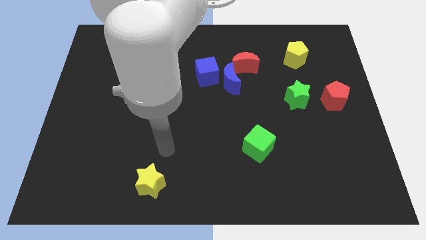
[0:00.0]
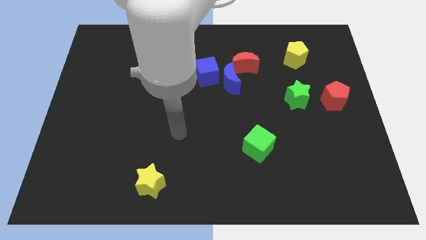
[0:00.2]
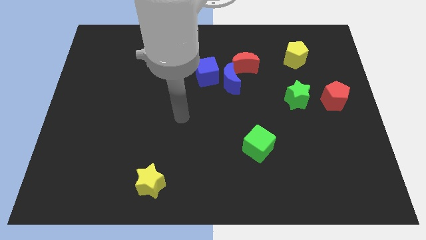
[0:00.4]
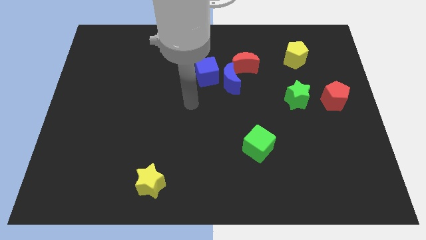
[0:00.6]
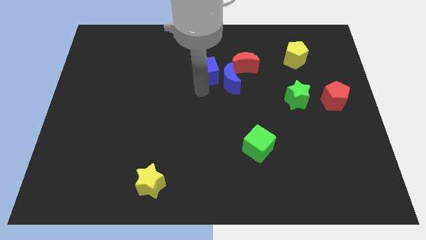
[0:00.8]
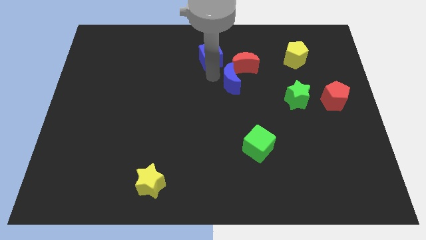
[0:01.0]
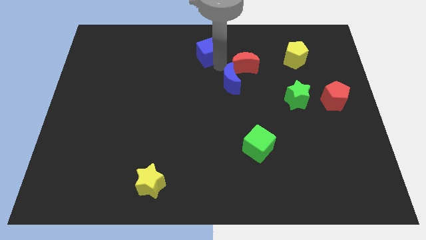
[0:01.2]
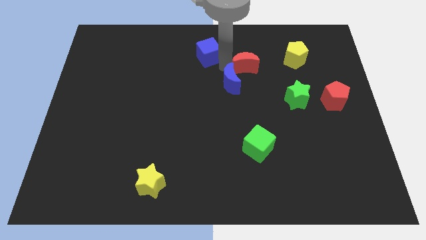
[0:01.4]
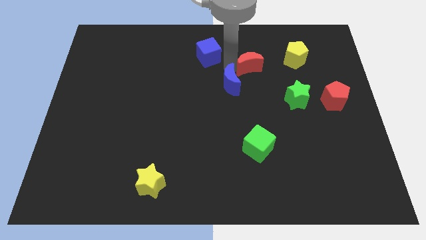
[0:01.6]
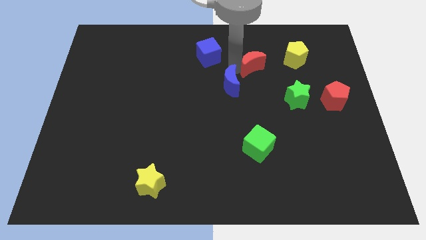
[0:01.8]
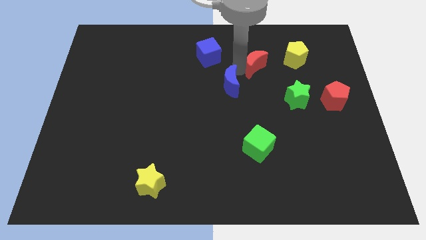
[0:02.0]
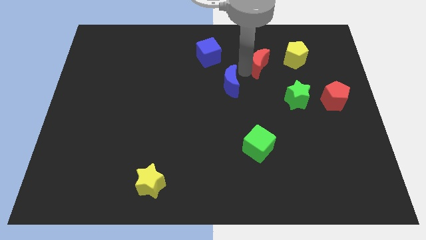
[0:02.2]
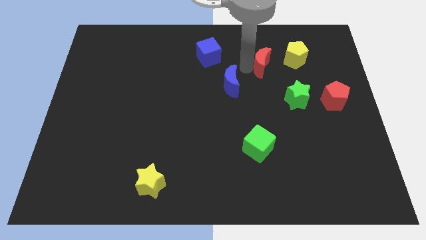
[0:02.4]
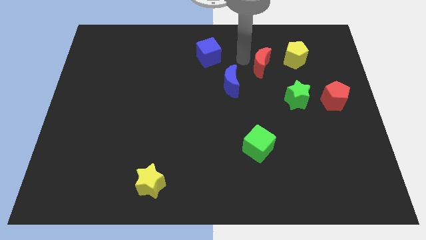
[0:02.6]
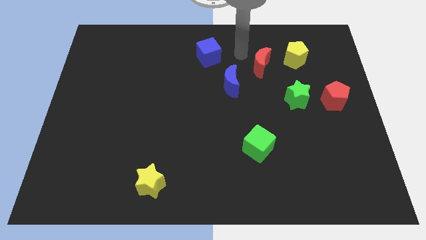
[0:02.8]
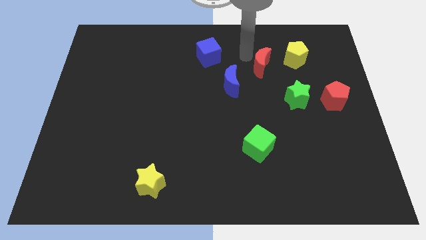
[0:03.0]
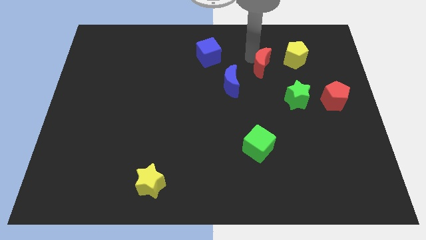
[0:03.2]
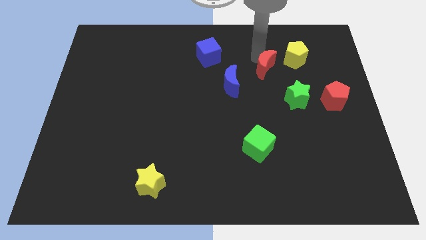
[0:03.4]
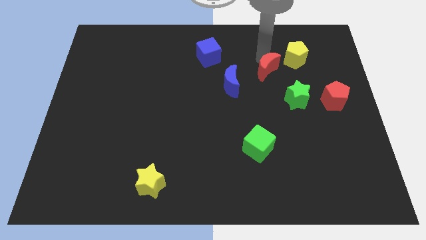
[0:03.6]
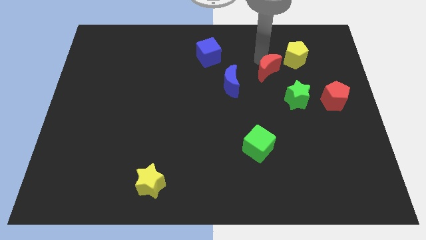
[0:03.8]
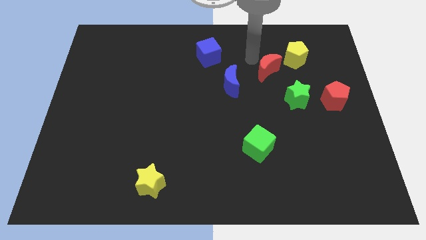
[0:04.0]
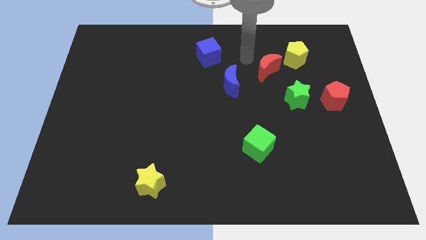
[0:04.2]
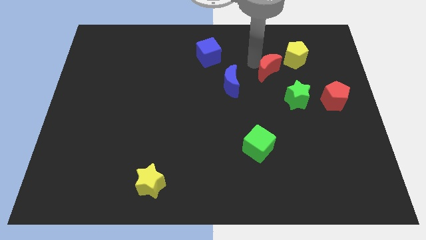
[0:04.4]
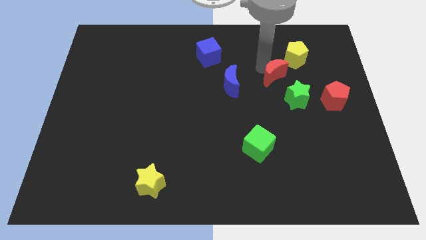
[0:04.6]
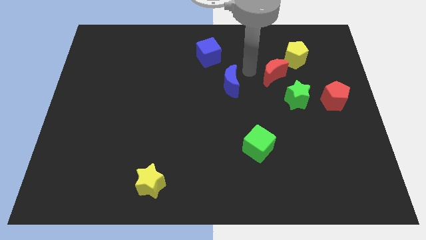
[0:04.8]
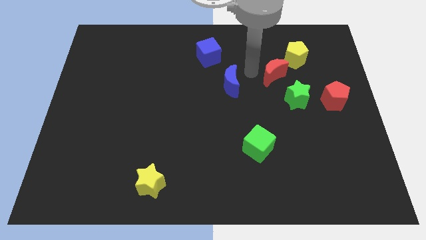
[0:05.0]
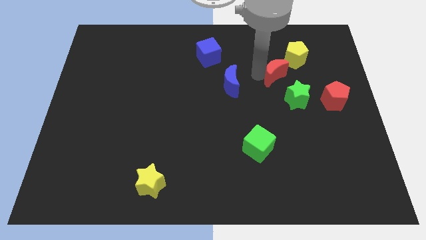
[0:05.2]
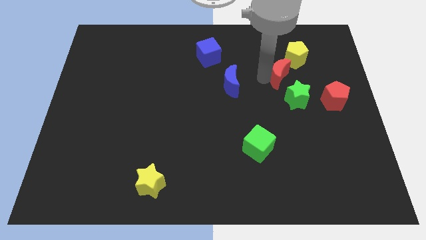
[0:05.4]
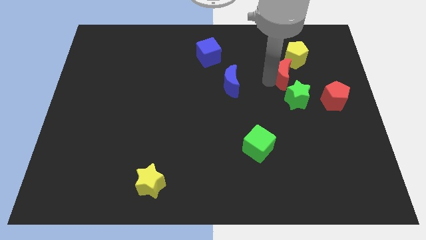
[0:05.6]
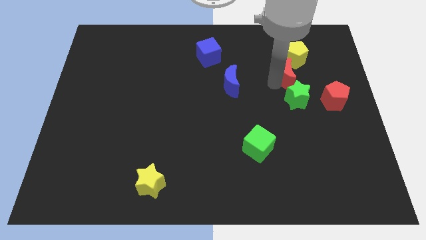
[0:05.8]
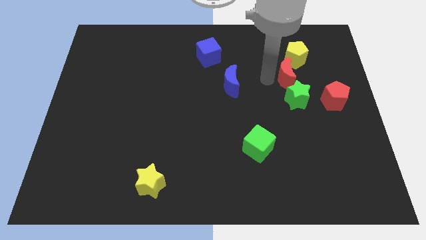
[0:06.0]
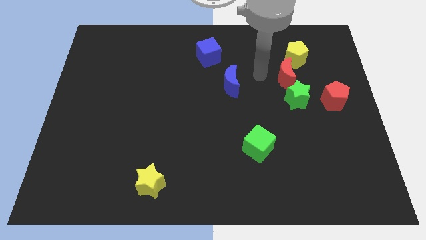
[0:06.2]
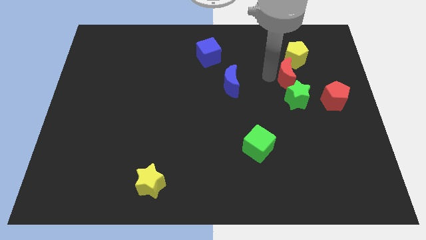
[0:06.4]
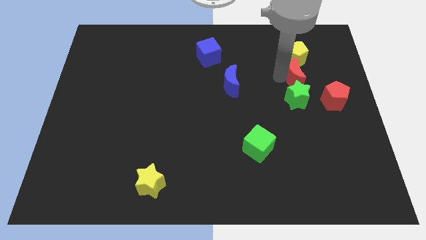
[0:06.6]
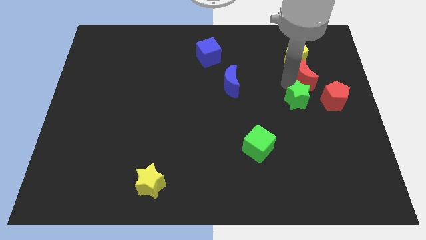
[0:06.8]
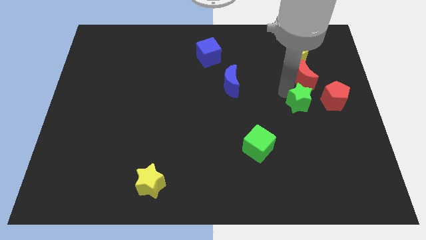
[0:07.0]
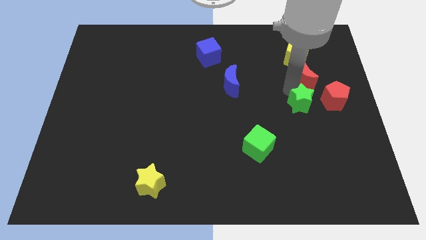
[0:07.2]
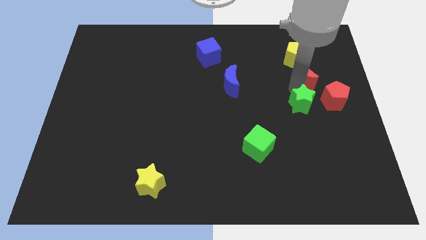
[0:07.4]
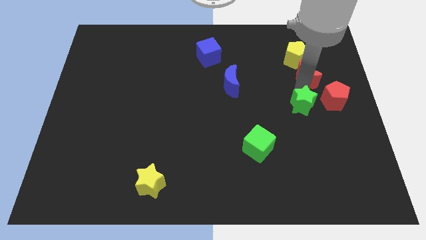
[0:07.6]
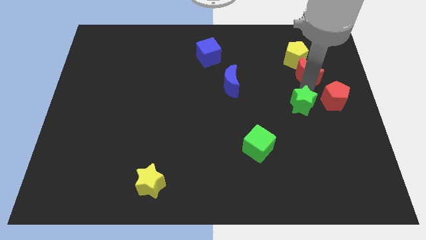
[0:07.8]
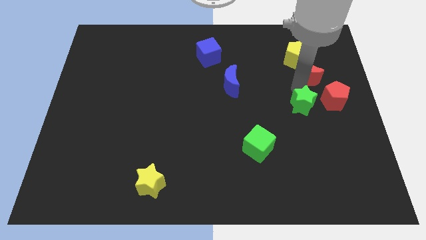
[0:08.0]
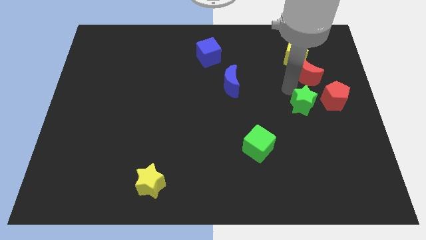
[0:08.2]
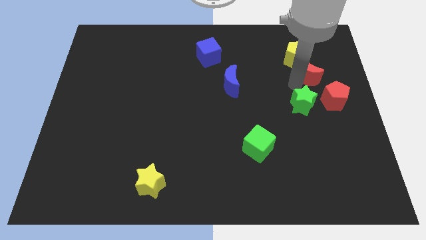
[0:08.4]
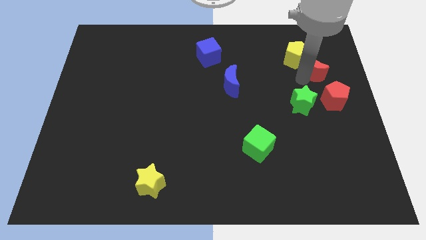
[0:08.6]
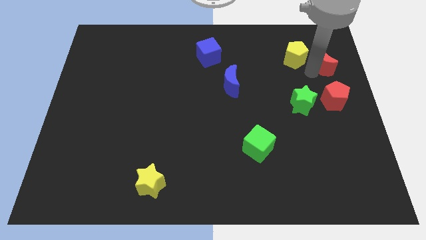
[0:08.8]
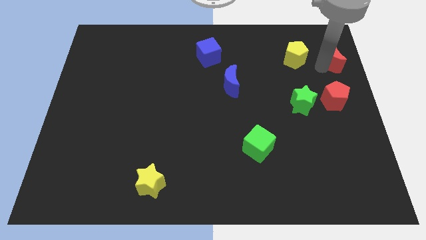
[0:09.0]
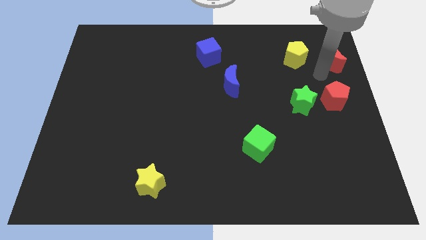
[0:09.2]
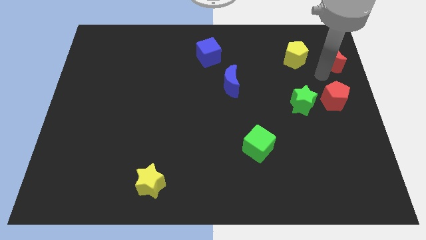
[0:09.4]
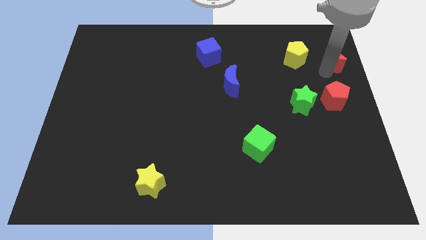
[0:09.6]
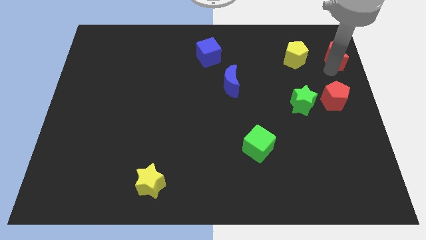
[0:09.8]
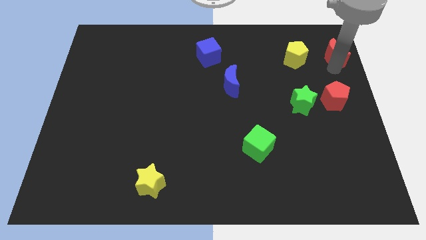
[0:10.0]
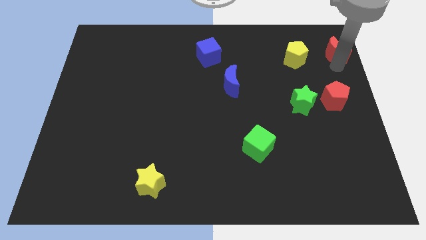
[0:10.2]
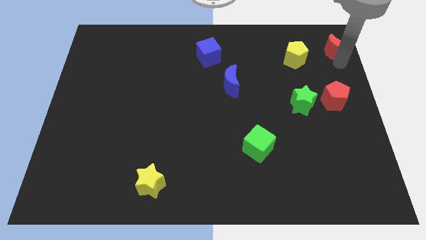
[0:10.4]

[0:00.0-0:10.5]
slide the red moon to the upper right corner

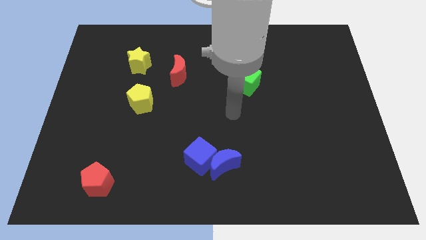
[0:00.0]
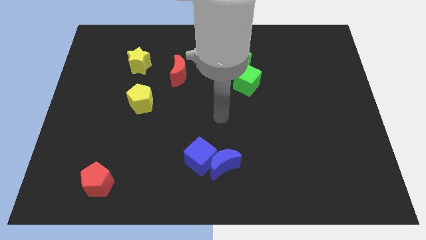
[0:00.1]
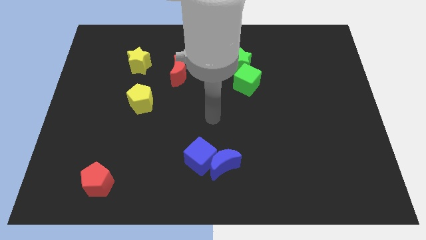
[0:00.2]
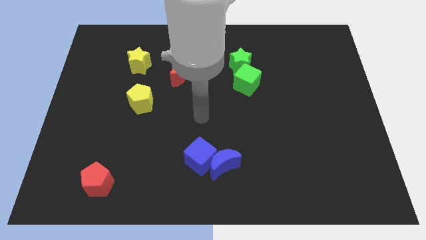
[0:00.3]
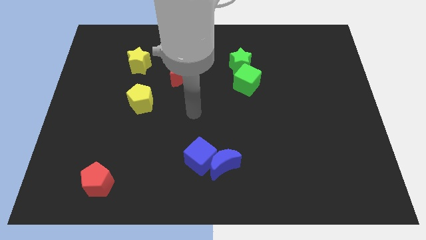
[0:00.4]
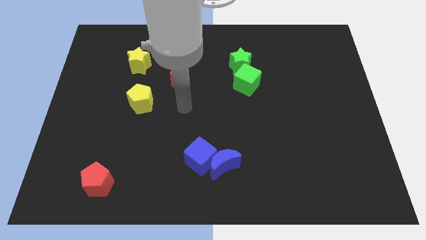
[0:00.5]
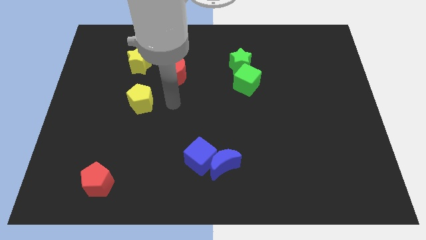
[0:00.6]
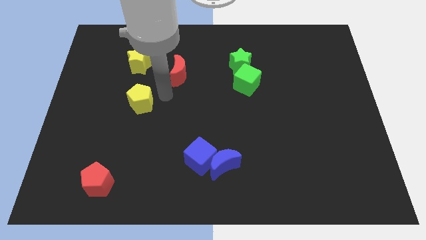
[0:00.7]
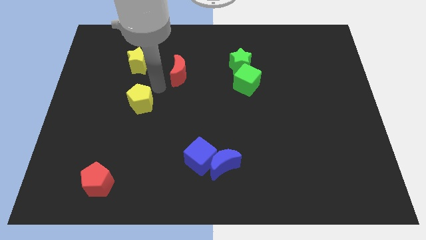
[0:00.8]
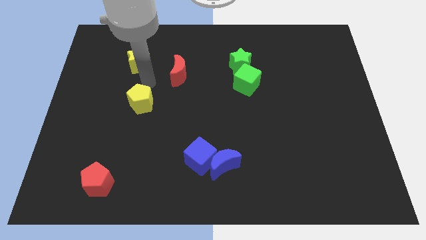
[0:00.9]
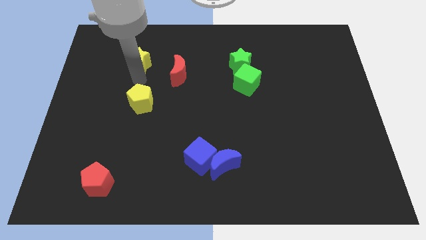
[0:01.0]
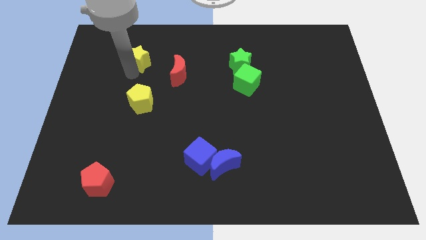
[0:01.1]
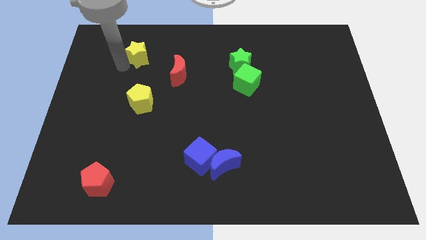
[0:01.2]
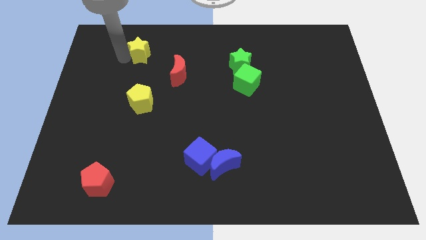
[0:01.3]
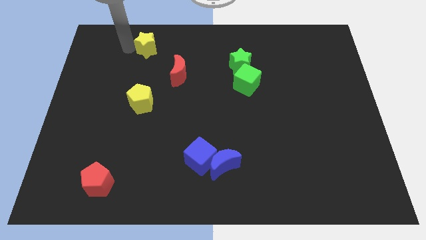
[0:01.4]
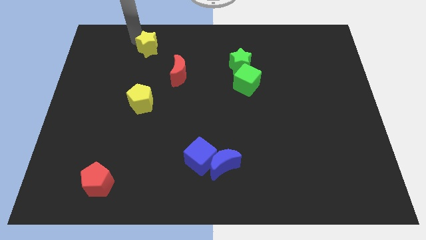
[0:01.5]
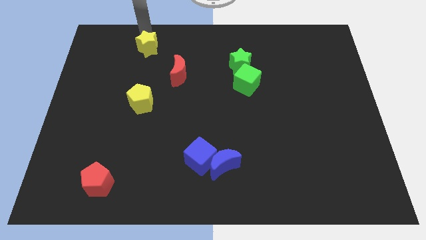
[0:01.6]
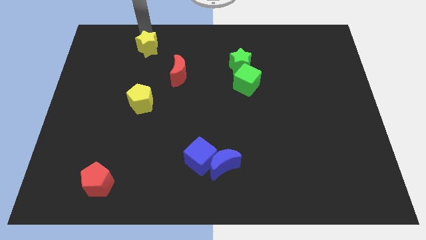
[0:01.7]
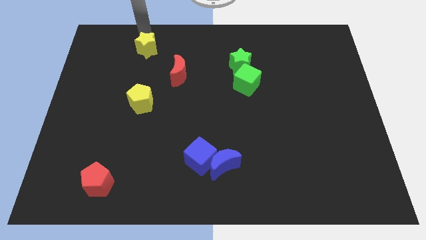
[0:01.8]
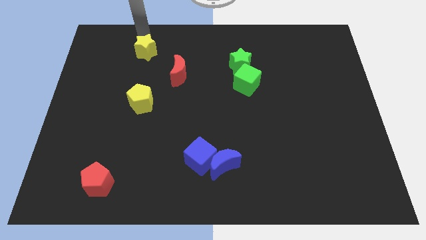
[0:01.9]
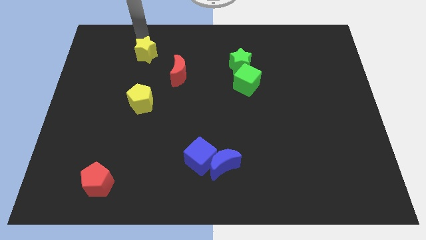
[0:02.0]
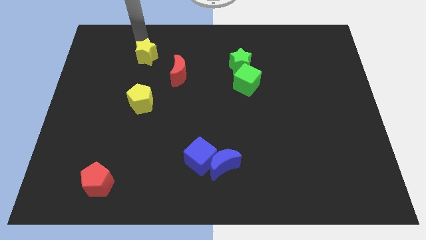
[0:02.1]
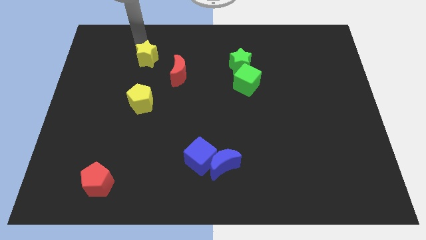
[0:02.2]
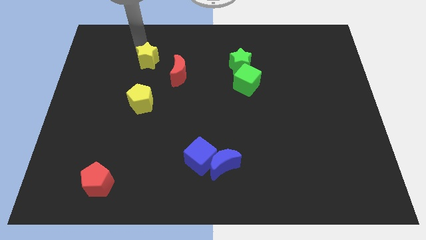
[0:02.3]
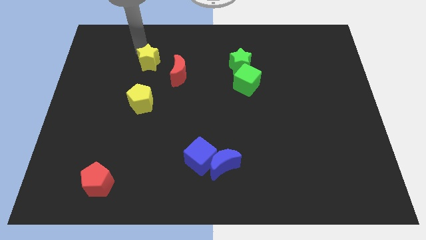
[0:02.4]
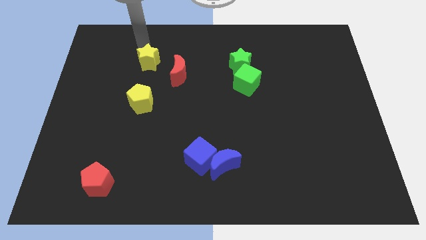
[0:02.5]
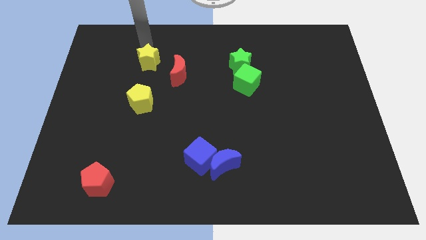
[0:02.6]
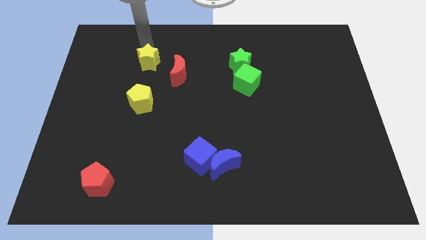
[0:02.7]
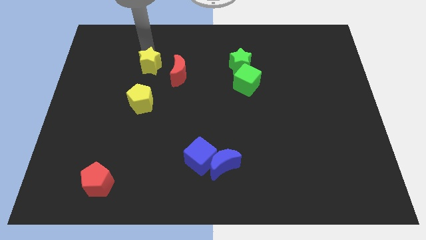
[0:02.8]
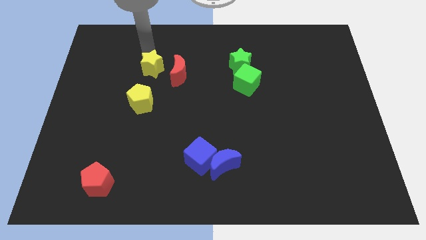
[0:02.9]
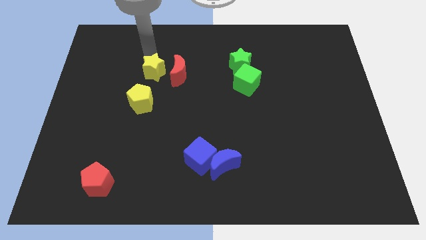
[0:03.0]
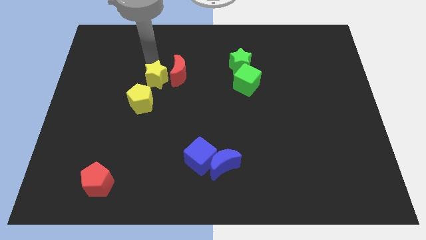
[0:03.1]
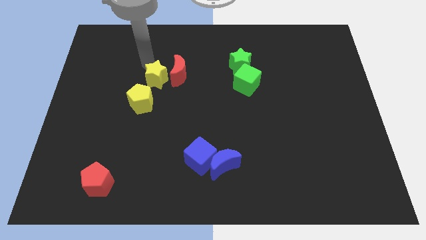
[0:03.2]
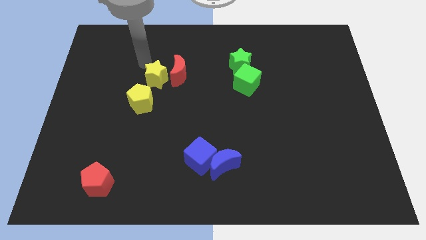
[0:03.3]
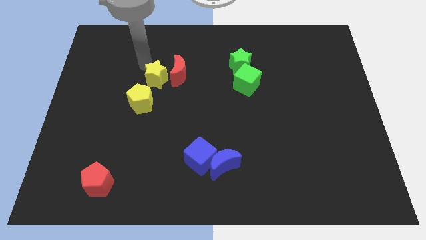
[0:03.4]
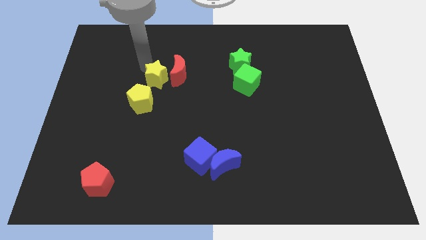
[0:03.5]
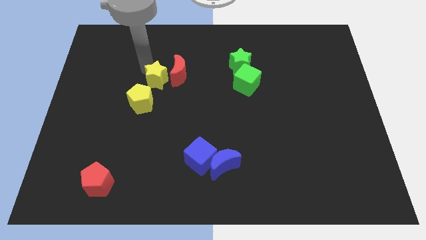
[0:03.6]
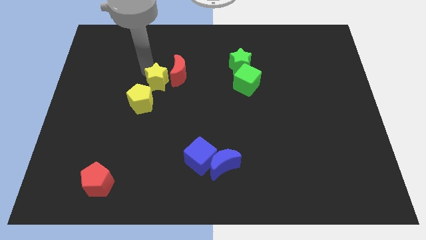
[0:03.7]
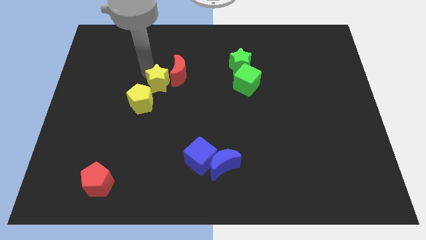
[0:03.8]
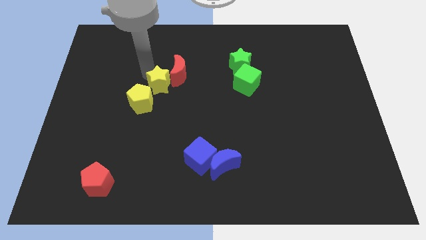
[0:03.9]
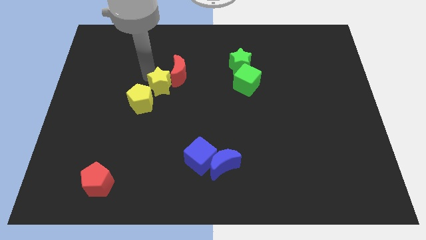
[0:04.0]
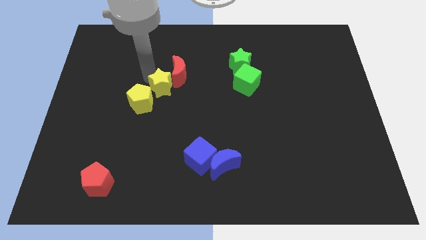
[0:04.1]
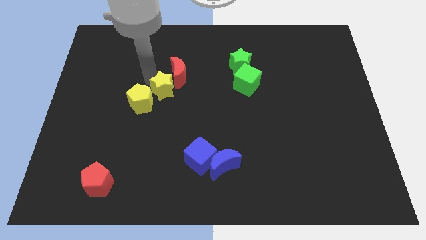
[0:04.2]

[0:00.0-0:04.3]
slide the yellow star to the middle of the board
